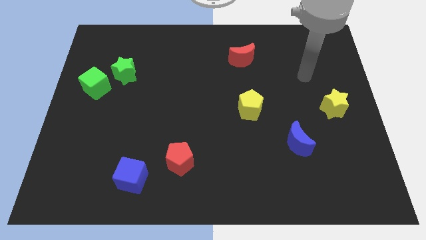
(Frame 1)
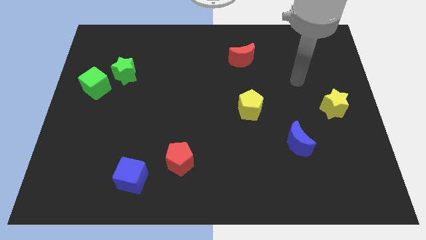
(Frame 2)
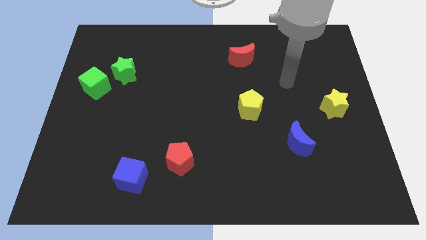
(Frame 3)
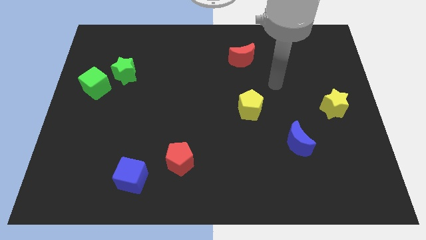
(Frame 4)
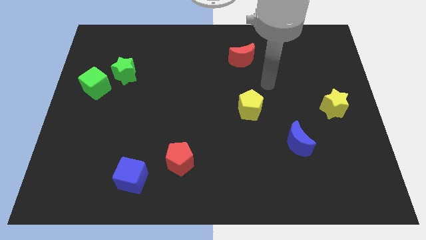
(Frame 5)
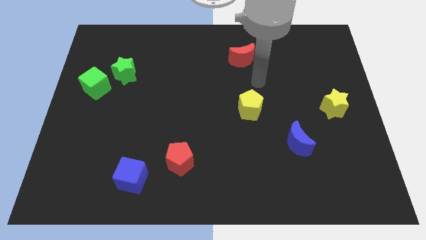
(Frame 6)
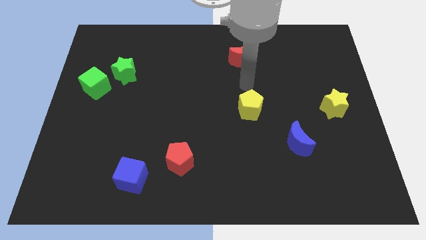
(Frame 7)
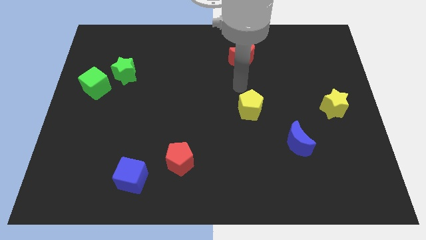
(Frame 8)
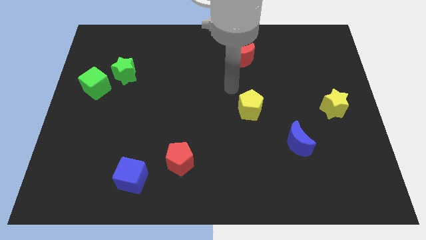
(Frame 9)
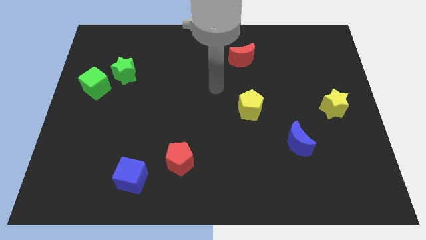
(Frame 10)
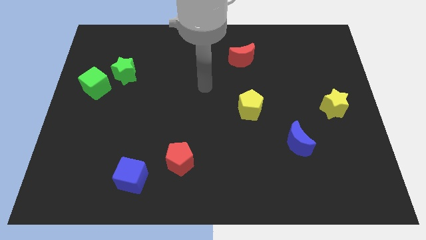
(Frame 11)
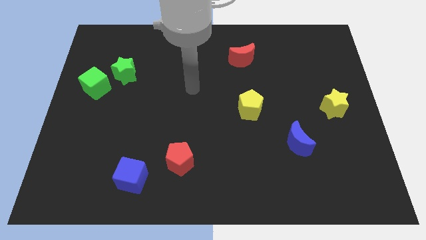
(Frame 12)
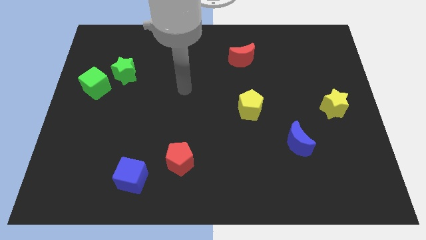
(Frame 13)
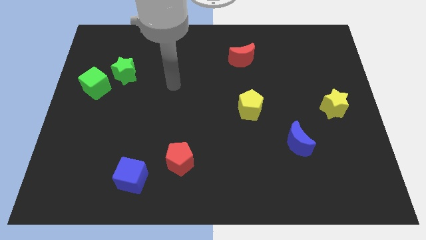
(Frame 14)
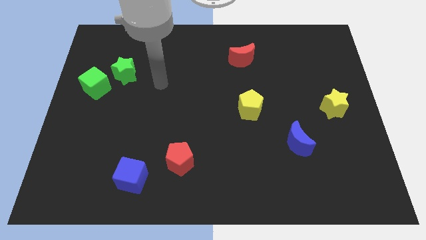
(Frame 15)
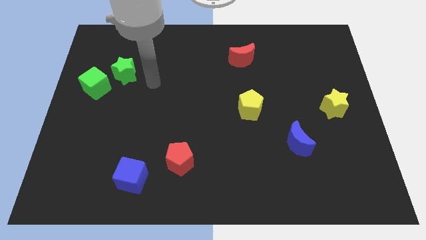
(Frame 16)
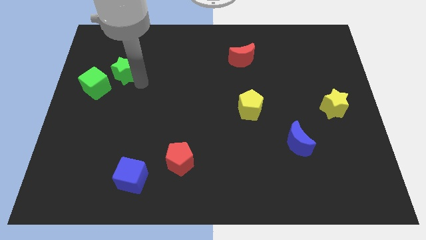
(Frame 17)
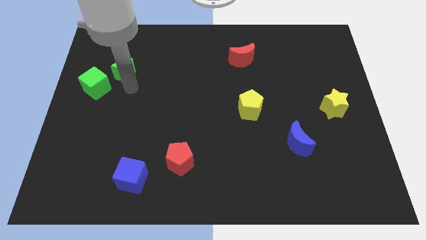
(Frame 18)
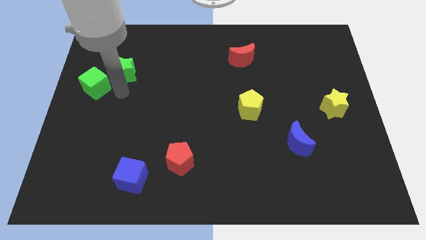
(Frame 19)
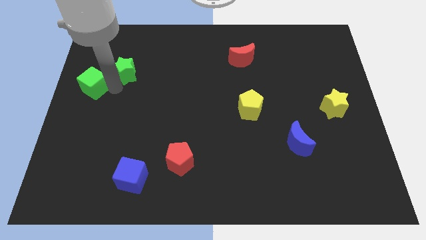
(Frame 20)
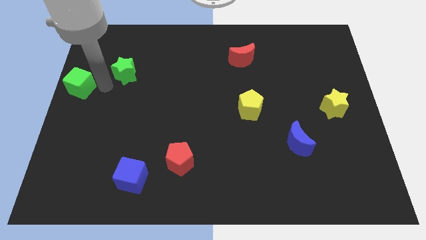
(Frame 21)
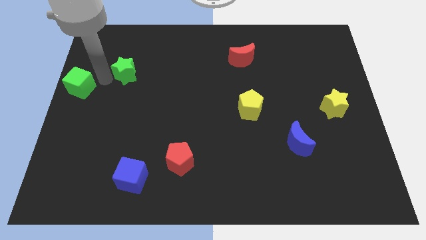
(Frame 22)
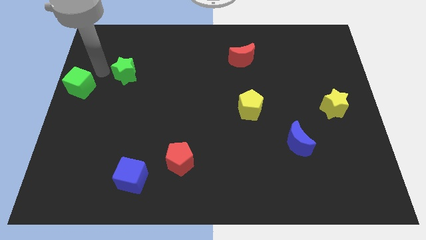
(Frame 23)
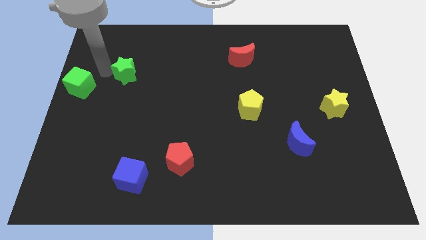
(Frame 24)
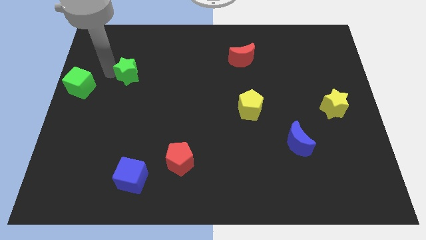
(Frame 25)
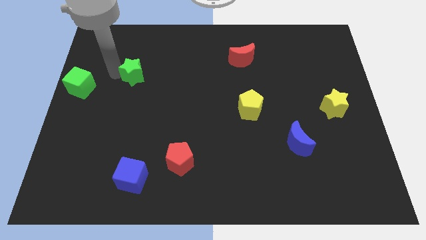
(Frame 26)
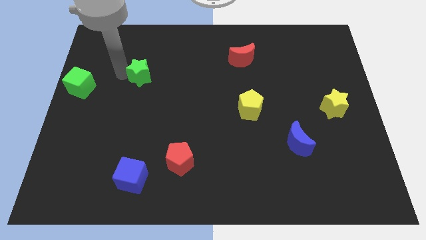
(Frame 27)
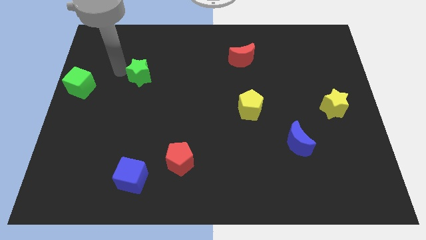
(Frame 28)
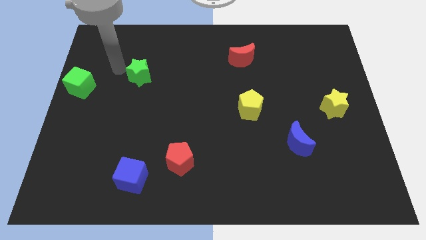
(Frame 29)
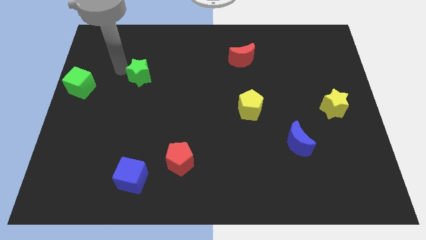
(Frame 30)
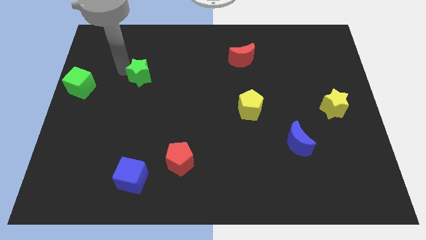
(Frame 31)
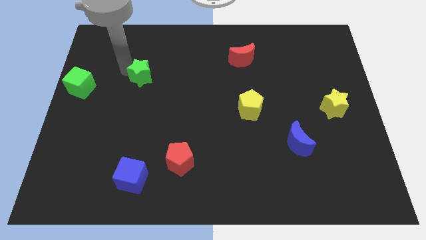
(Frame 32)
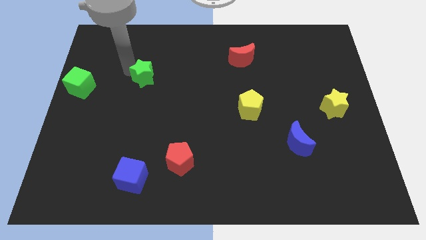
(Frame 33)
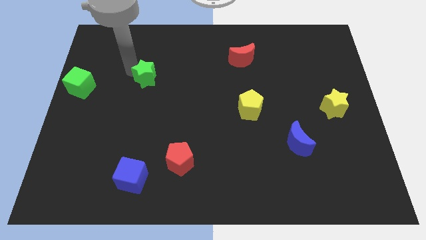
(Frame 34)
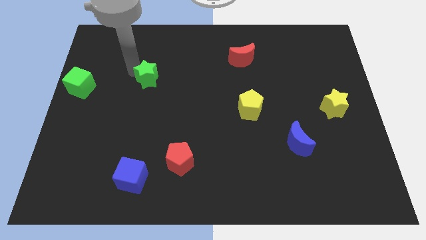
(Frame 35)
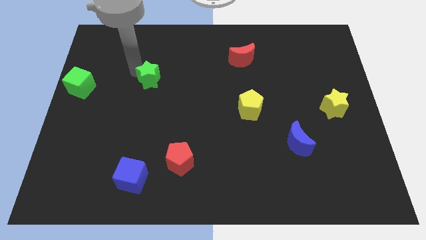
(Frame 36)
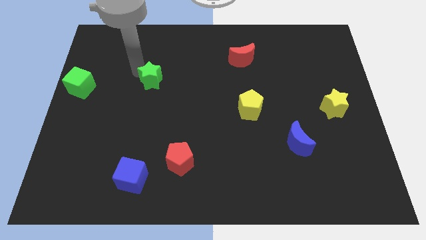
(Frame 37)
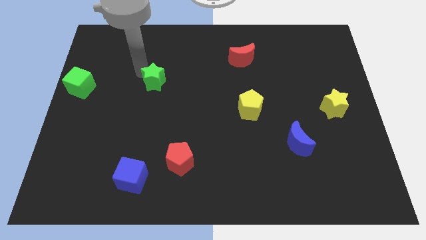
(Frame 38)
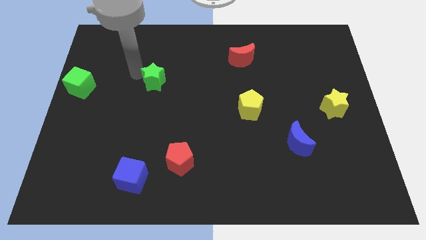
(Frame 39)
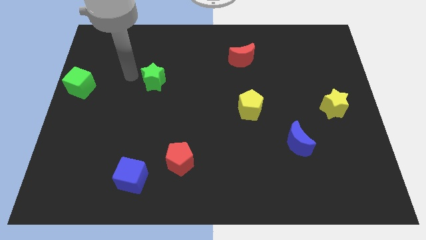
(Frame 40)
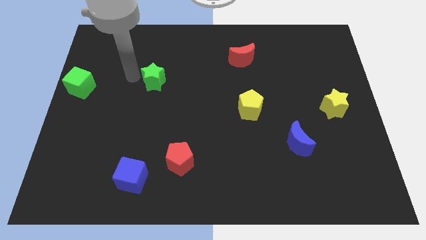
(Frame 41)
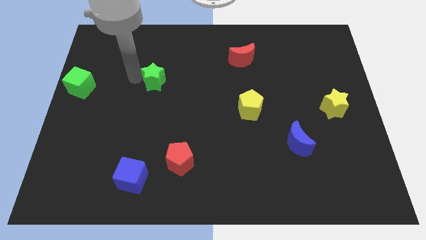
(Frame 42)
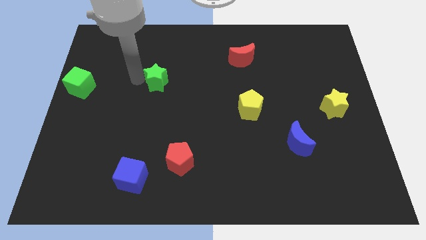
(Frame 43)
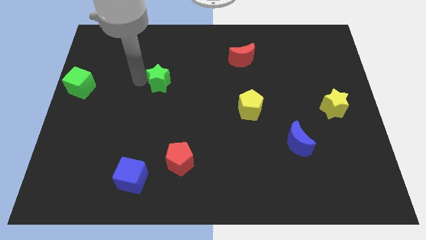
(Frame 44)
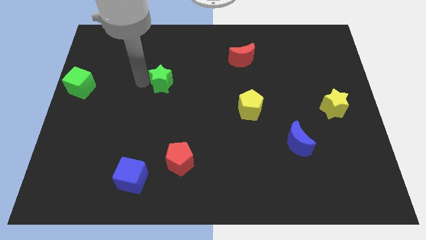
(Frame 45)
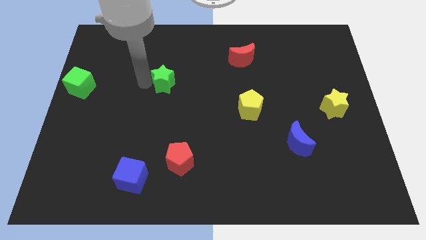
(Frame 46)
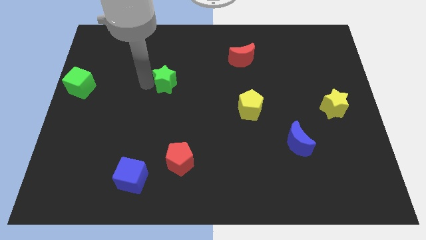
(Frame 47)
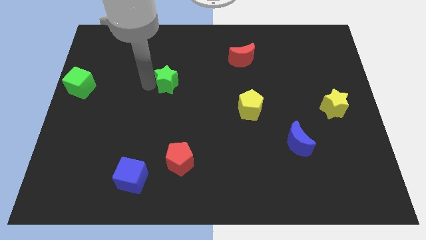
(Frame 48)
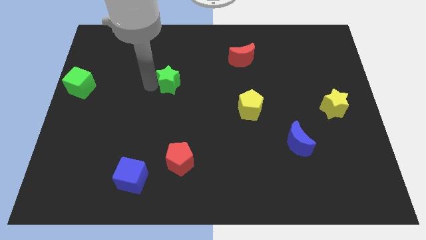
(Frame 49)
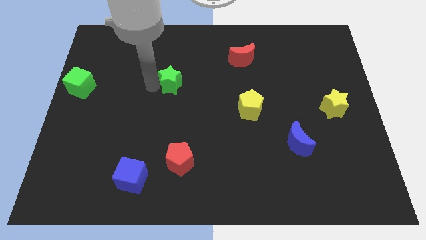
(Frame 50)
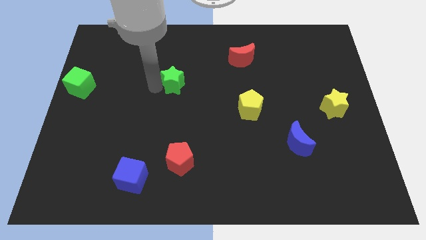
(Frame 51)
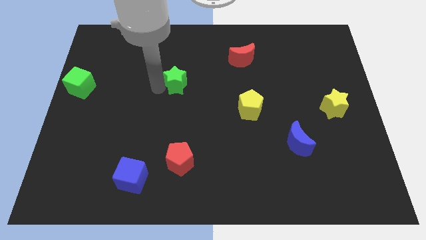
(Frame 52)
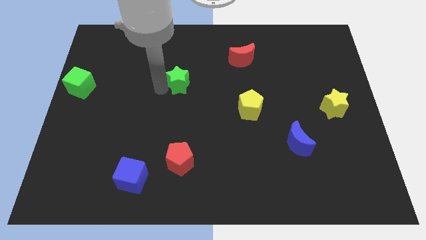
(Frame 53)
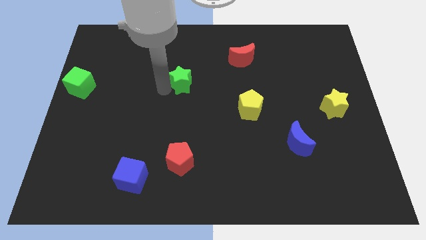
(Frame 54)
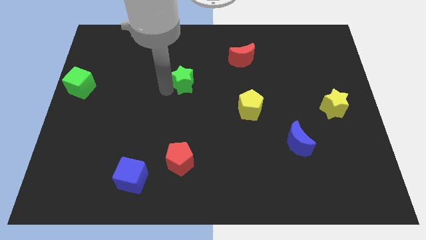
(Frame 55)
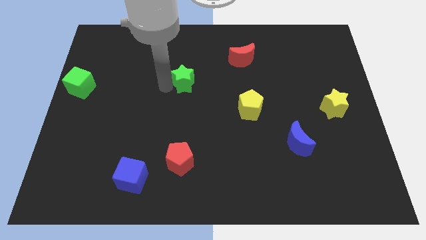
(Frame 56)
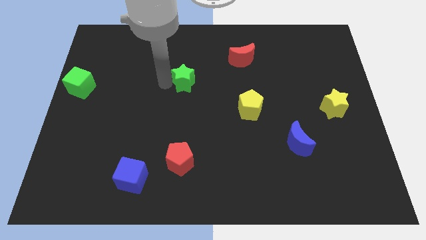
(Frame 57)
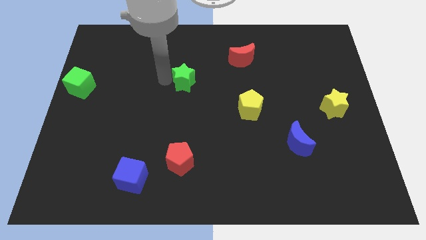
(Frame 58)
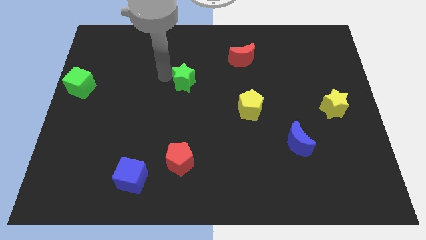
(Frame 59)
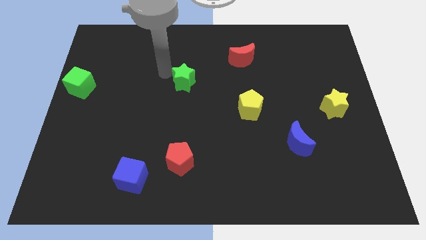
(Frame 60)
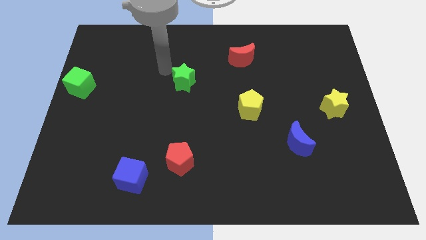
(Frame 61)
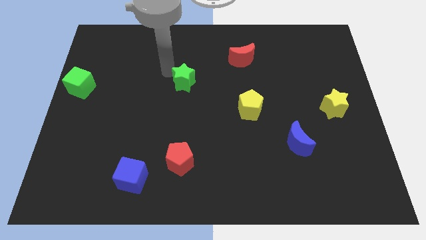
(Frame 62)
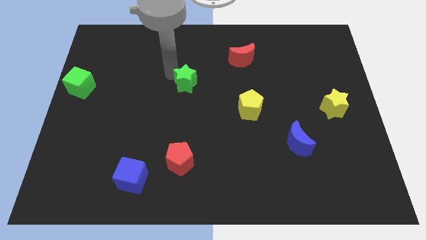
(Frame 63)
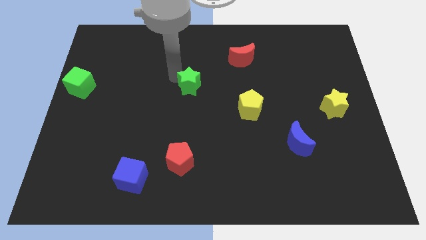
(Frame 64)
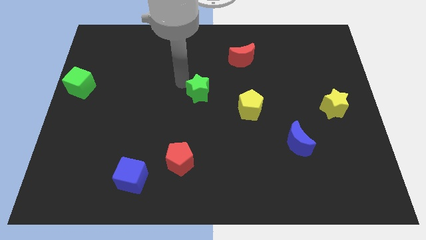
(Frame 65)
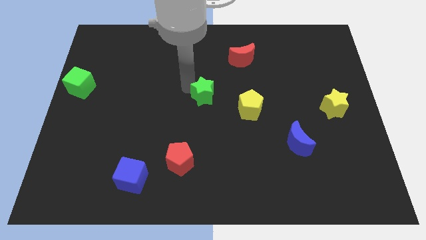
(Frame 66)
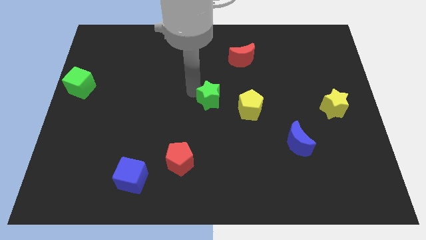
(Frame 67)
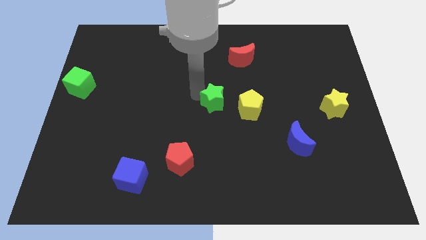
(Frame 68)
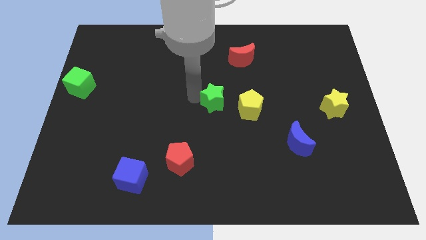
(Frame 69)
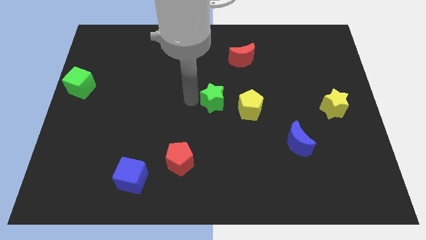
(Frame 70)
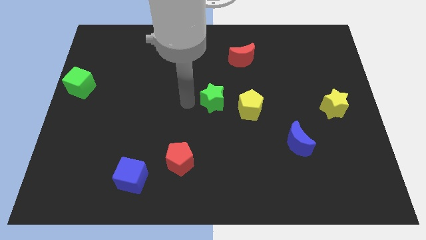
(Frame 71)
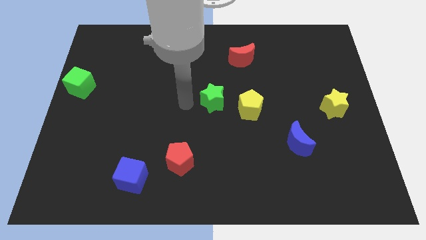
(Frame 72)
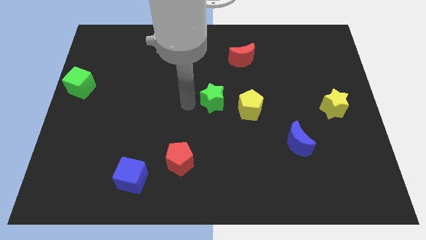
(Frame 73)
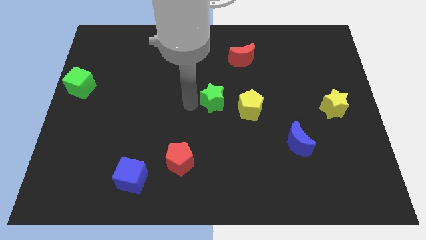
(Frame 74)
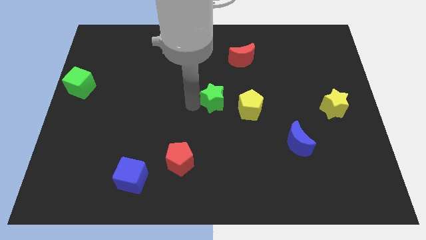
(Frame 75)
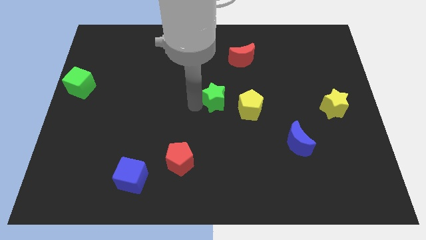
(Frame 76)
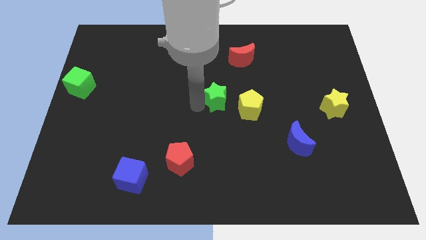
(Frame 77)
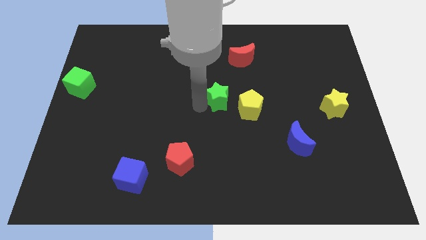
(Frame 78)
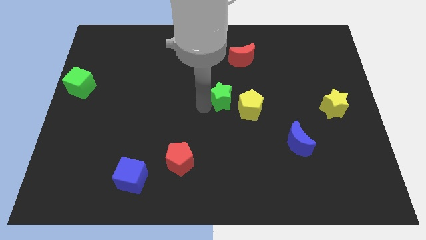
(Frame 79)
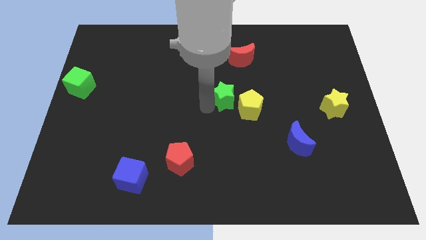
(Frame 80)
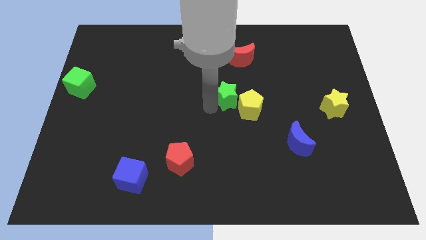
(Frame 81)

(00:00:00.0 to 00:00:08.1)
push the green star close to the yellow pentagon

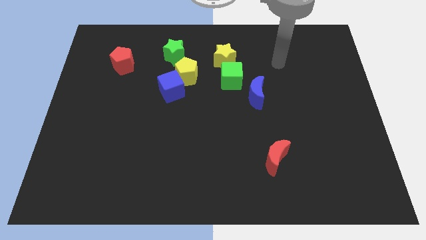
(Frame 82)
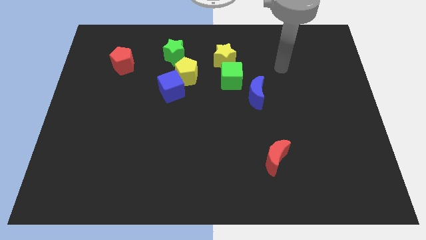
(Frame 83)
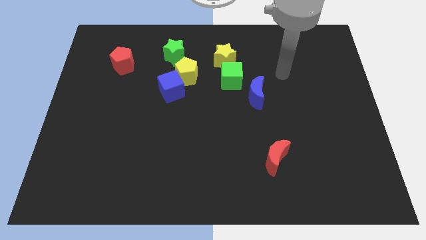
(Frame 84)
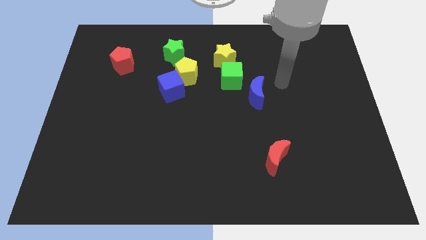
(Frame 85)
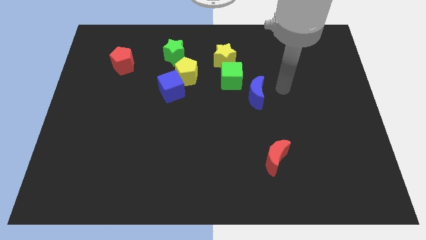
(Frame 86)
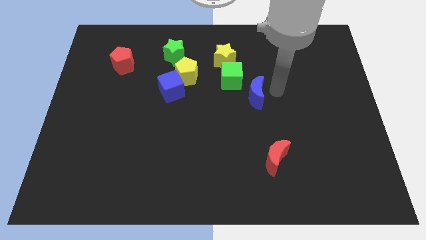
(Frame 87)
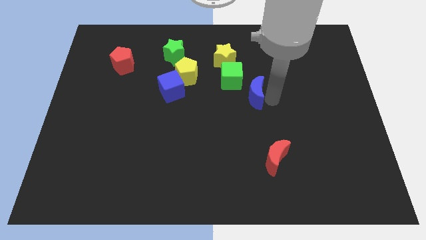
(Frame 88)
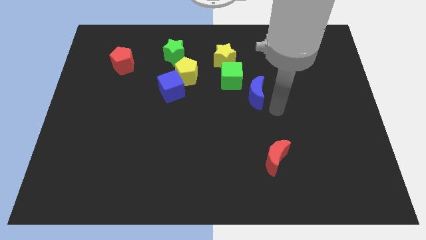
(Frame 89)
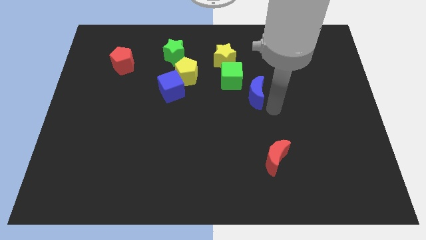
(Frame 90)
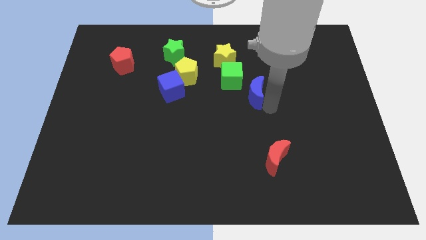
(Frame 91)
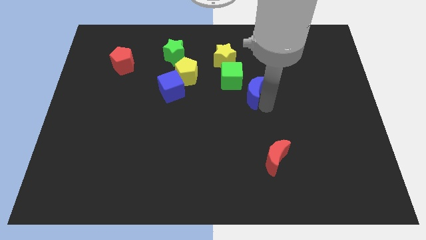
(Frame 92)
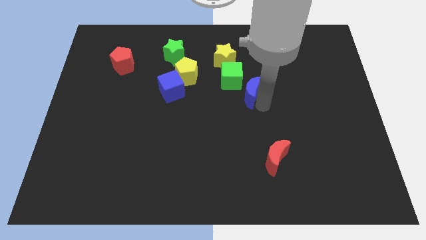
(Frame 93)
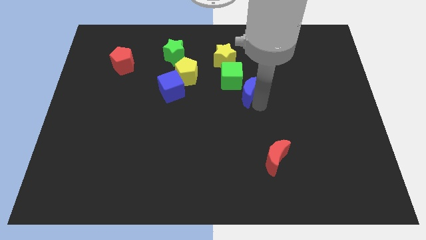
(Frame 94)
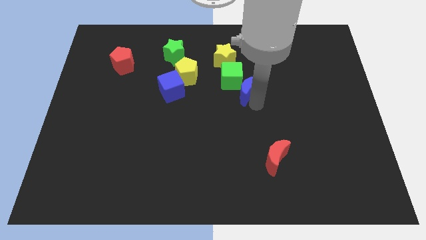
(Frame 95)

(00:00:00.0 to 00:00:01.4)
slide the blue moon next to the green cube
